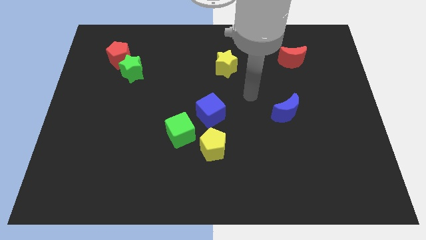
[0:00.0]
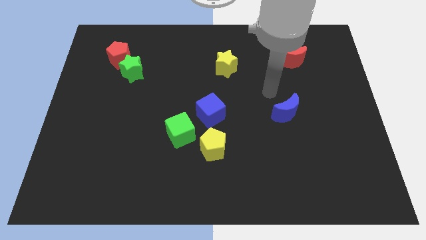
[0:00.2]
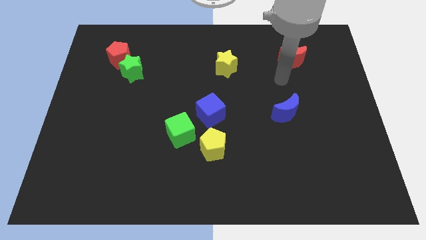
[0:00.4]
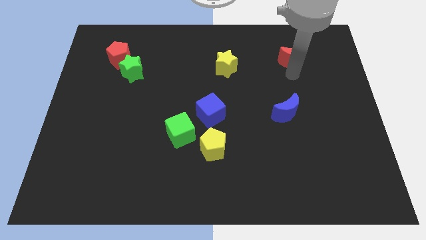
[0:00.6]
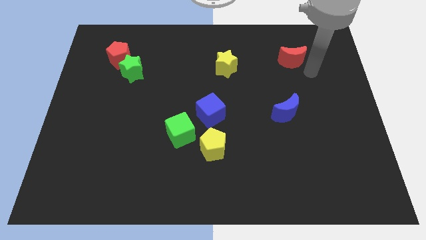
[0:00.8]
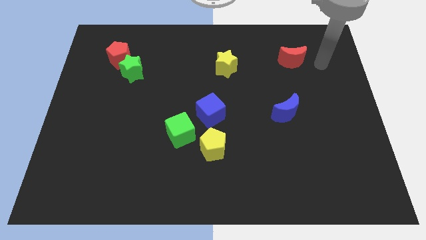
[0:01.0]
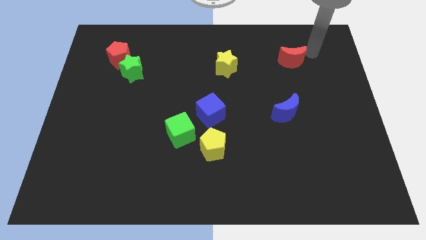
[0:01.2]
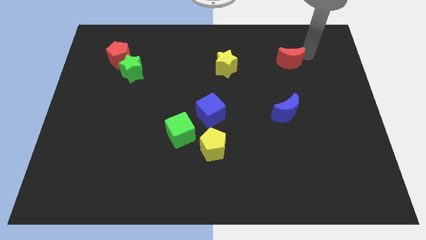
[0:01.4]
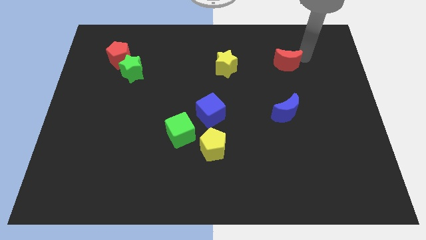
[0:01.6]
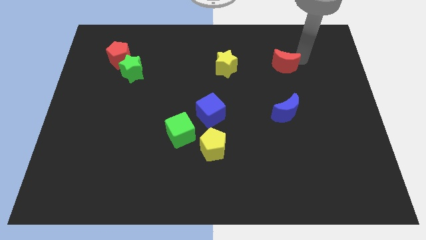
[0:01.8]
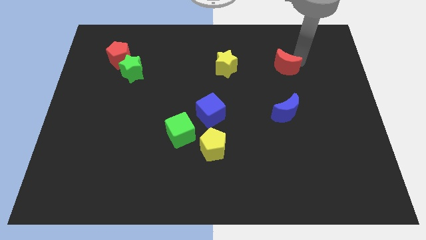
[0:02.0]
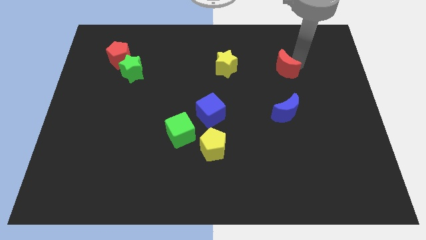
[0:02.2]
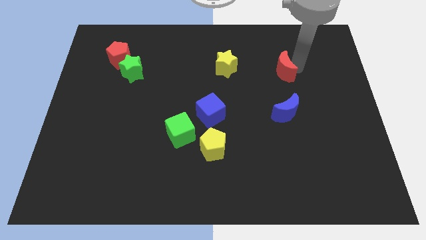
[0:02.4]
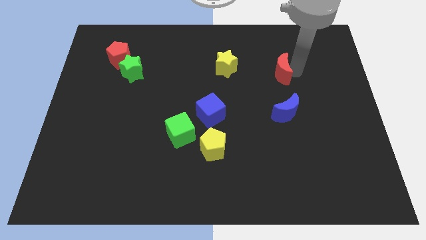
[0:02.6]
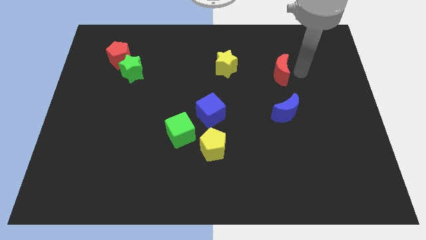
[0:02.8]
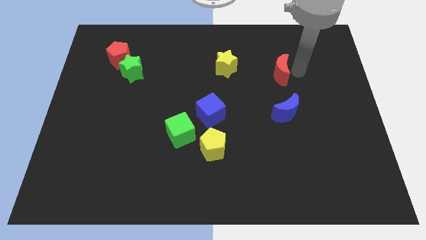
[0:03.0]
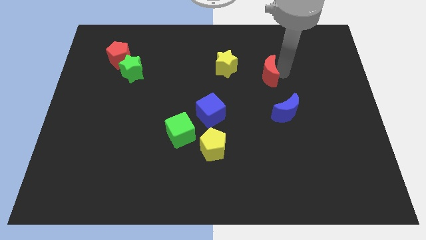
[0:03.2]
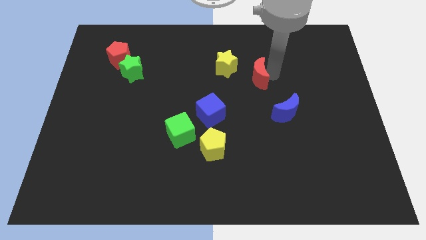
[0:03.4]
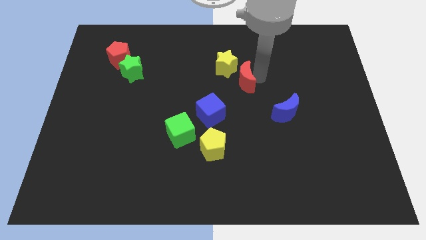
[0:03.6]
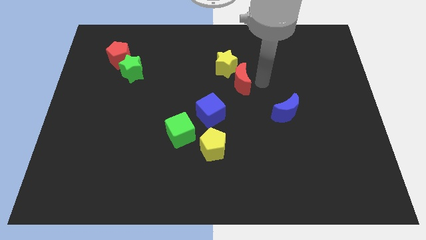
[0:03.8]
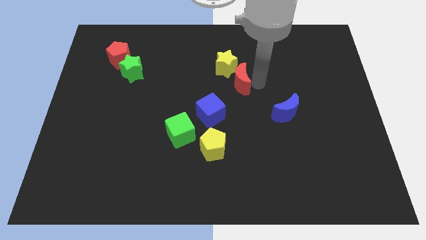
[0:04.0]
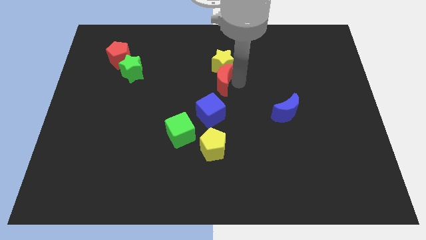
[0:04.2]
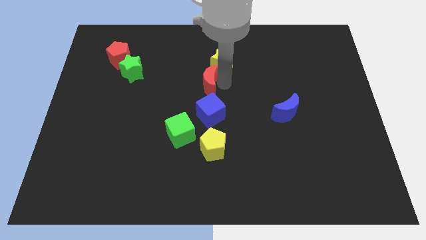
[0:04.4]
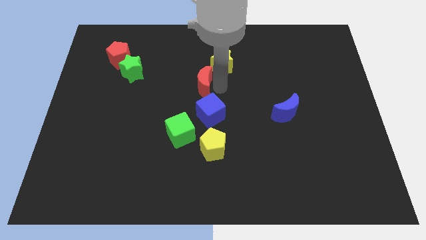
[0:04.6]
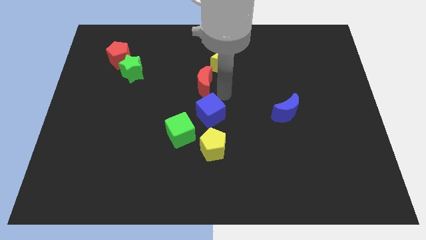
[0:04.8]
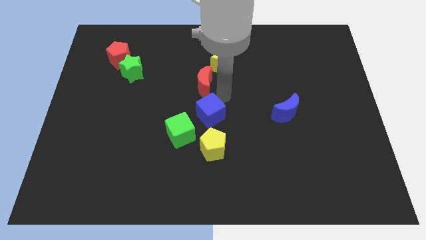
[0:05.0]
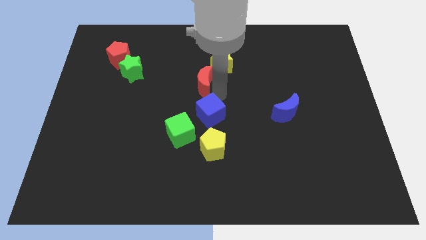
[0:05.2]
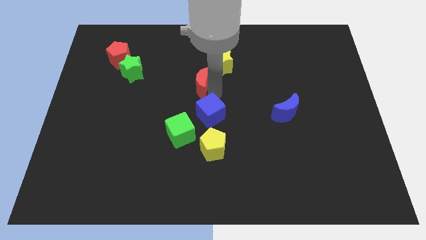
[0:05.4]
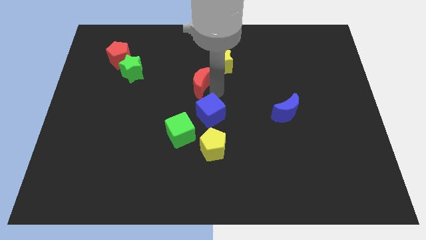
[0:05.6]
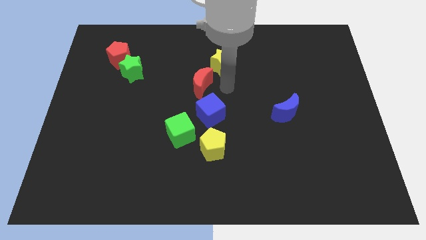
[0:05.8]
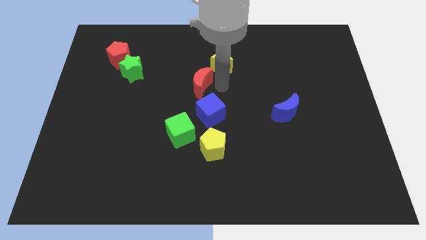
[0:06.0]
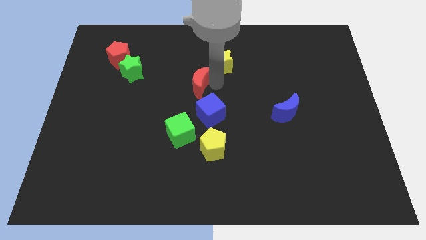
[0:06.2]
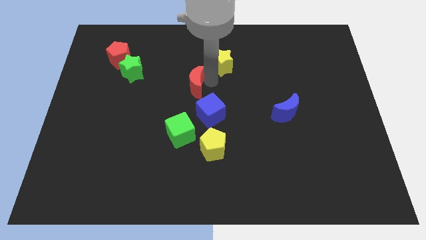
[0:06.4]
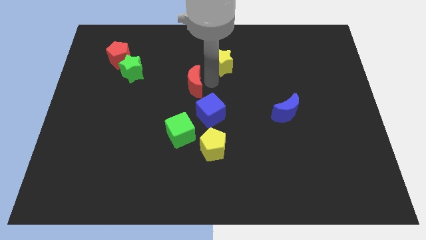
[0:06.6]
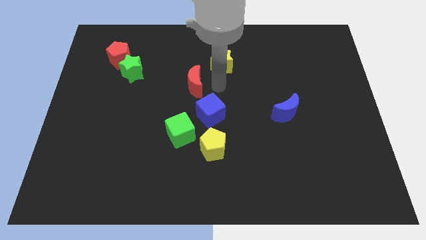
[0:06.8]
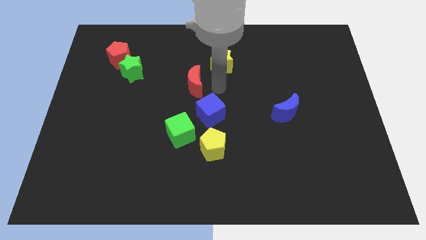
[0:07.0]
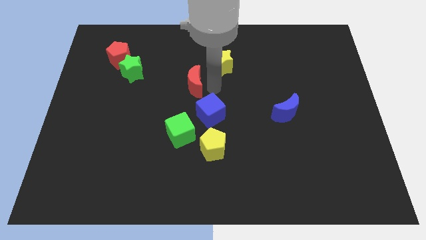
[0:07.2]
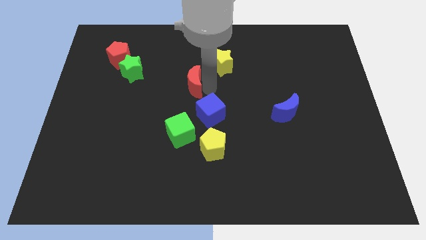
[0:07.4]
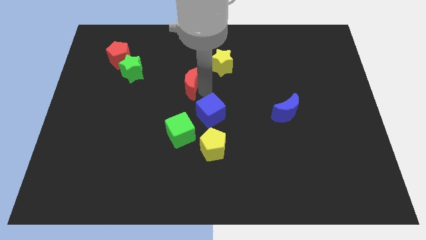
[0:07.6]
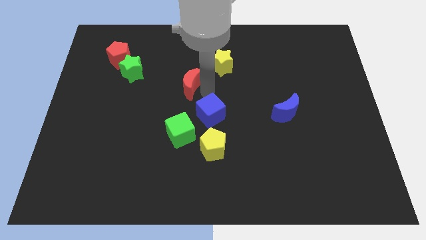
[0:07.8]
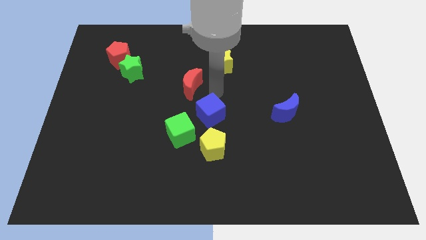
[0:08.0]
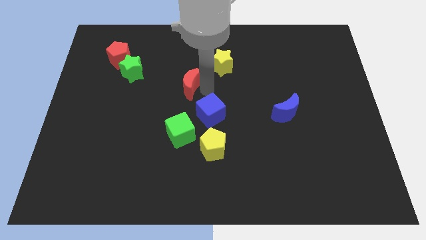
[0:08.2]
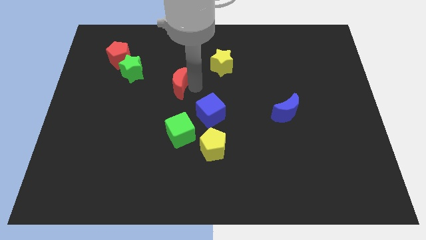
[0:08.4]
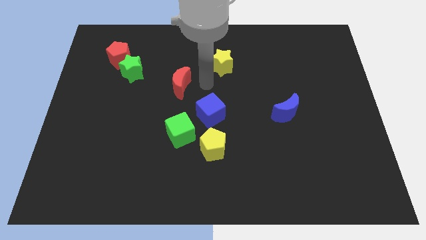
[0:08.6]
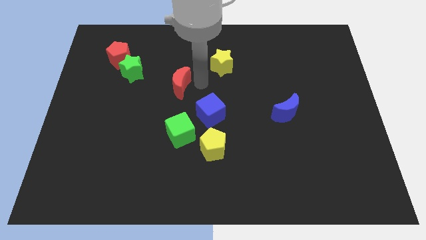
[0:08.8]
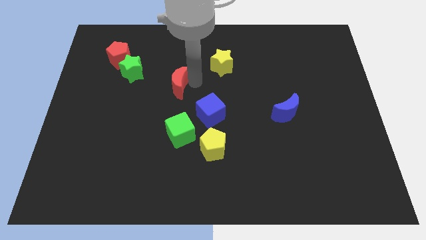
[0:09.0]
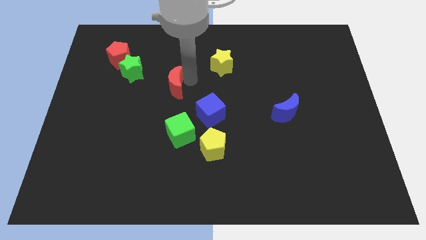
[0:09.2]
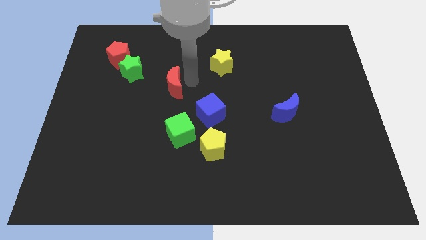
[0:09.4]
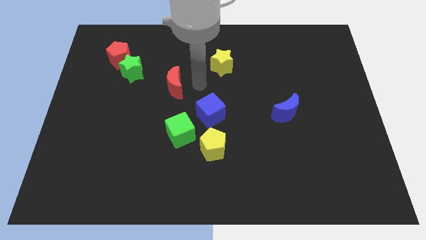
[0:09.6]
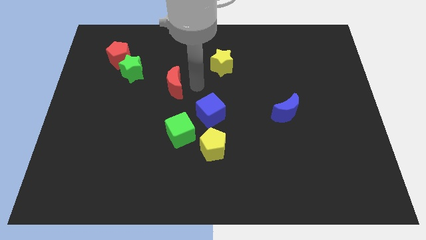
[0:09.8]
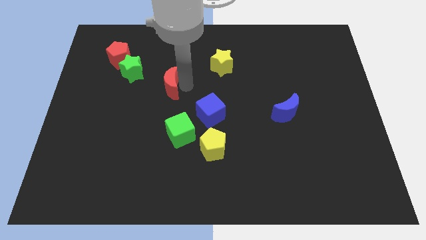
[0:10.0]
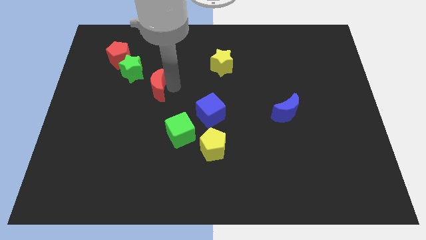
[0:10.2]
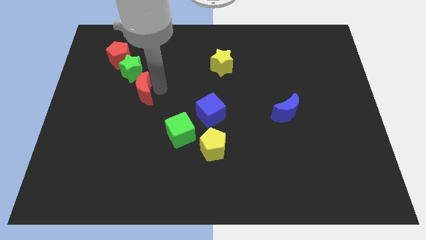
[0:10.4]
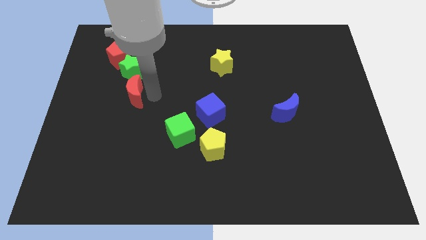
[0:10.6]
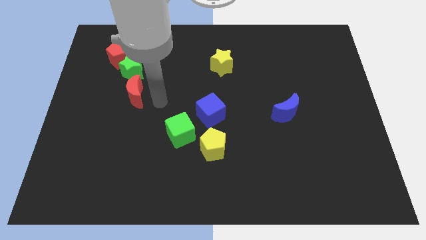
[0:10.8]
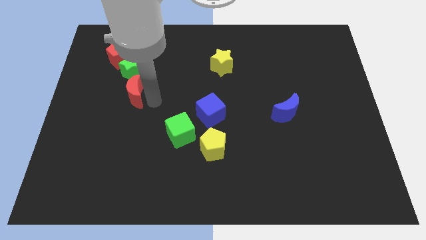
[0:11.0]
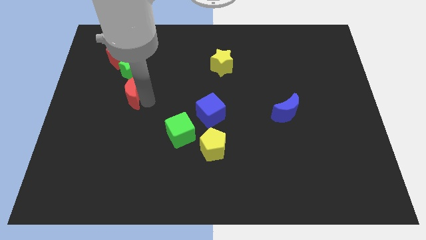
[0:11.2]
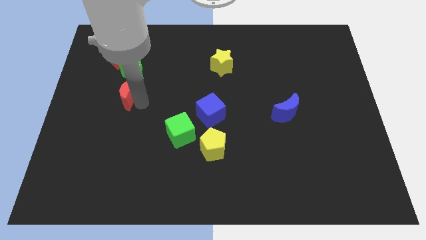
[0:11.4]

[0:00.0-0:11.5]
push the red moon below the red pentagon

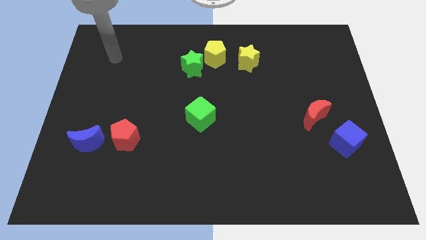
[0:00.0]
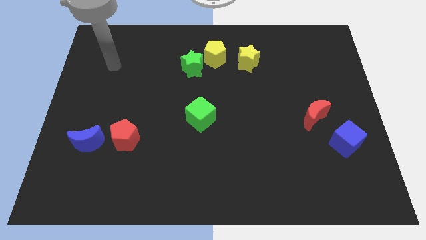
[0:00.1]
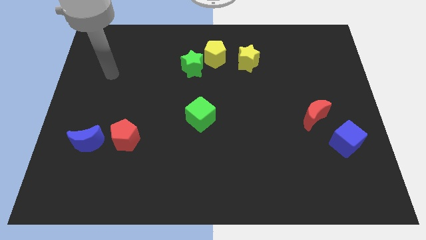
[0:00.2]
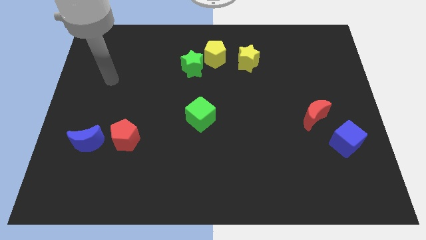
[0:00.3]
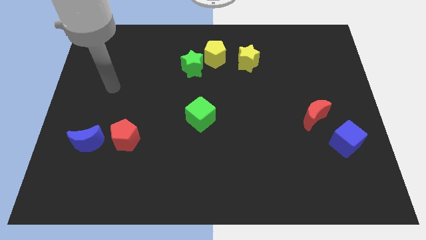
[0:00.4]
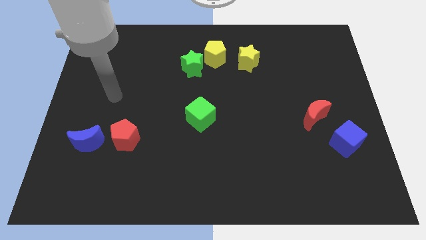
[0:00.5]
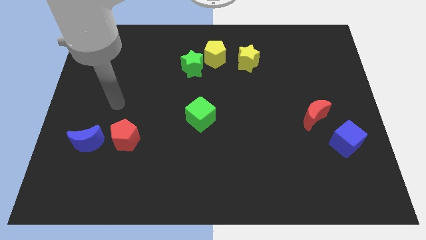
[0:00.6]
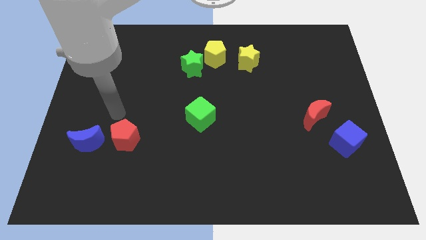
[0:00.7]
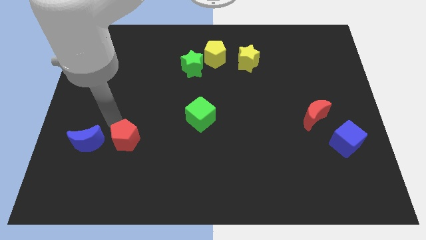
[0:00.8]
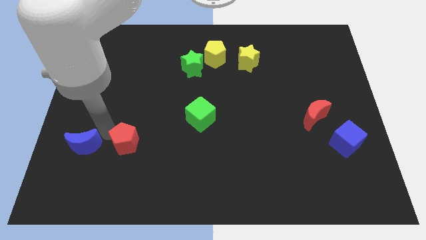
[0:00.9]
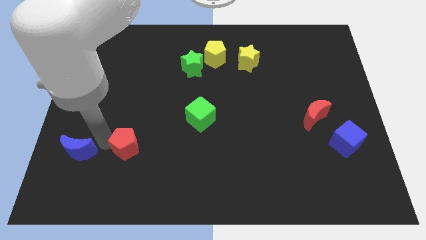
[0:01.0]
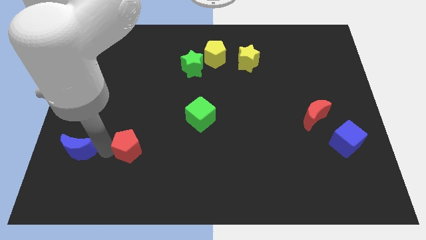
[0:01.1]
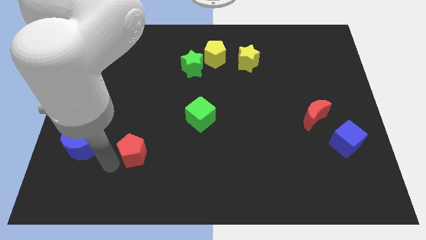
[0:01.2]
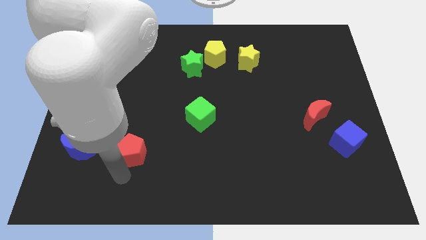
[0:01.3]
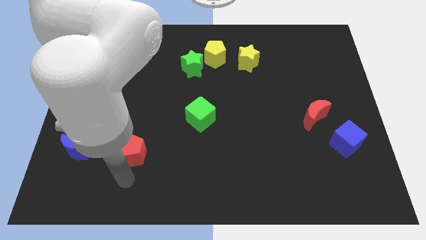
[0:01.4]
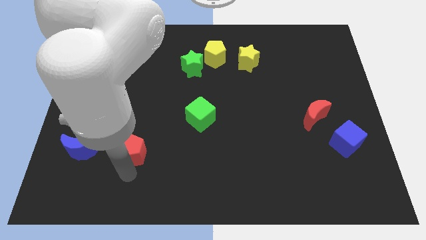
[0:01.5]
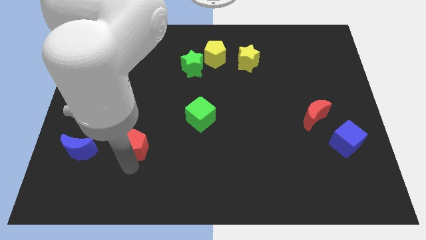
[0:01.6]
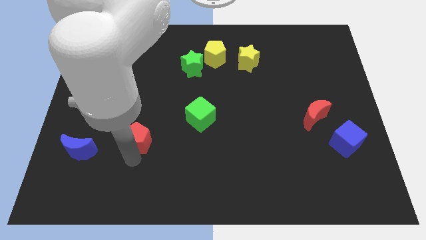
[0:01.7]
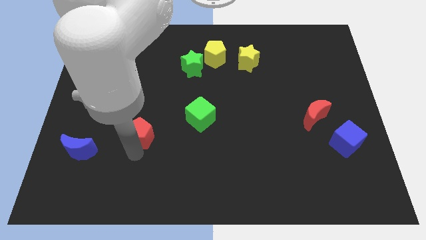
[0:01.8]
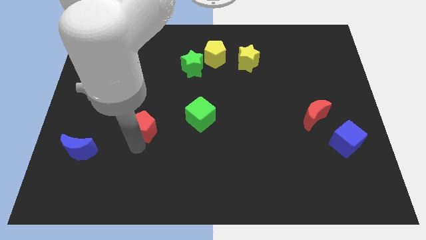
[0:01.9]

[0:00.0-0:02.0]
push the red pentagon to the left side of the green cube
